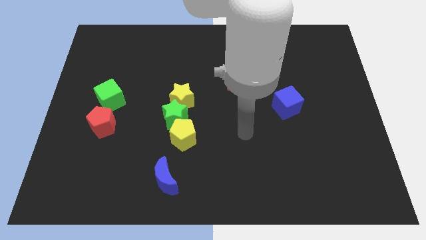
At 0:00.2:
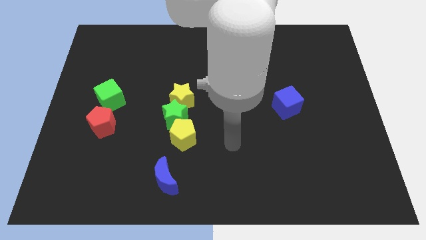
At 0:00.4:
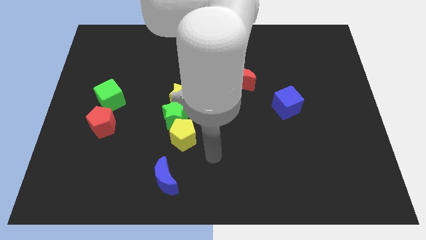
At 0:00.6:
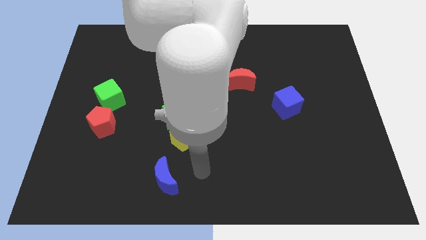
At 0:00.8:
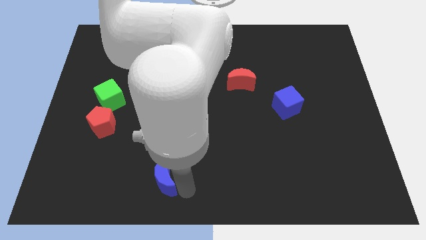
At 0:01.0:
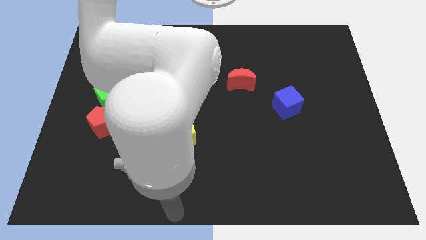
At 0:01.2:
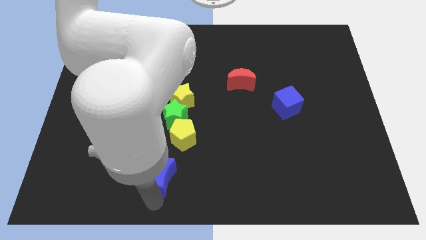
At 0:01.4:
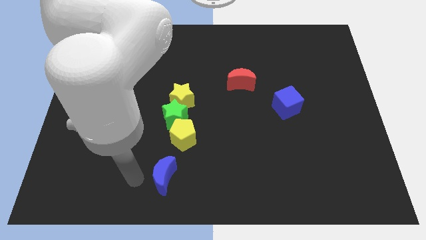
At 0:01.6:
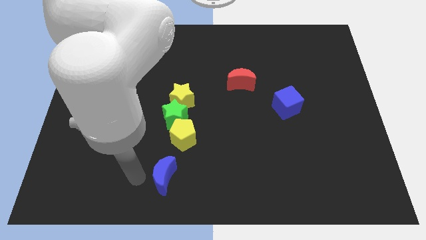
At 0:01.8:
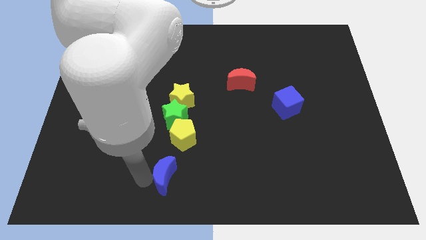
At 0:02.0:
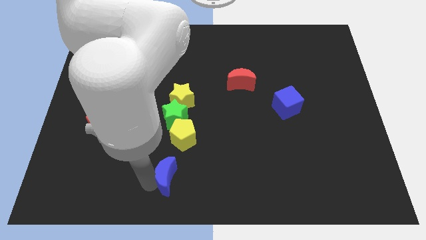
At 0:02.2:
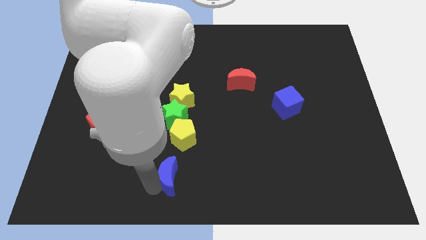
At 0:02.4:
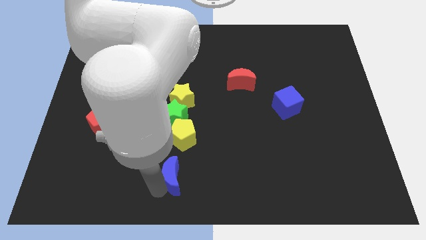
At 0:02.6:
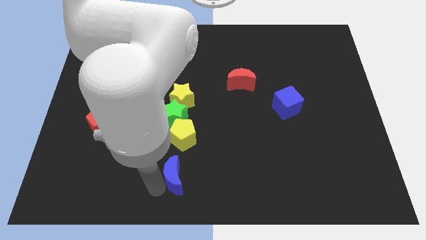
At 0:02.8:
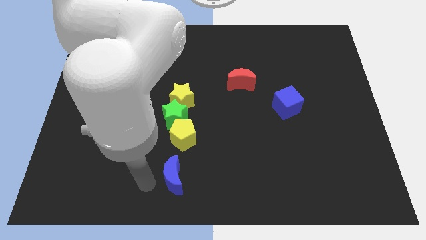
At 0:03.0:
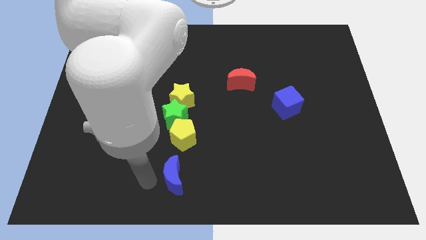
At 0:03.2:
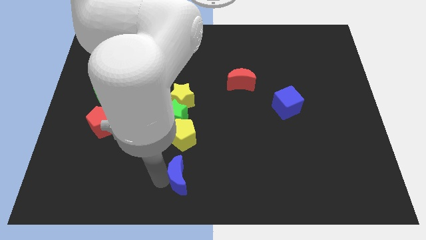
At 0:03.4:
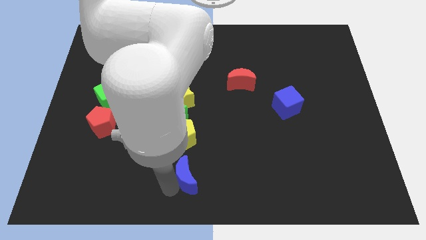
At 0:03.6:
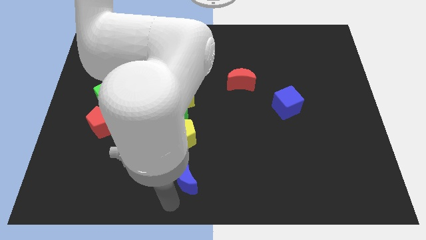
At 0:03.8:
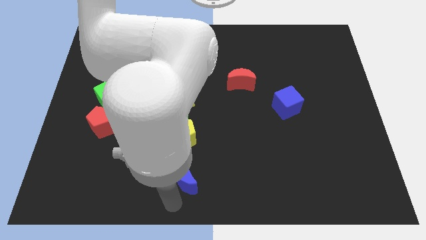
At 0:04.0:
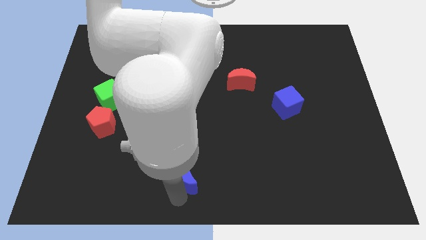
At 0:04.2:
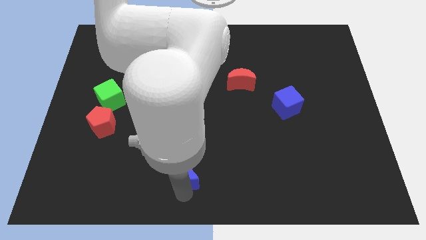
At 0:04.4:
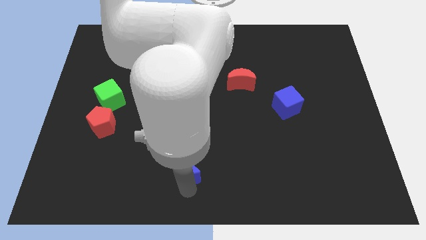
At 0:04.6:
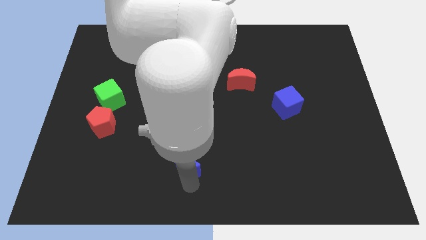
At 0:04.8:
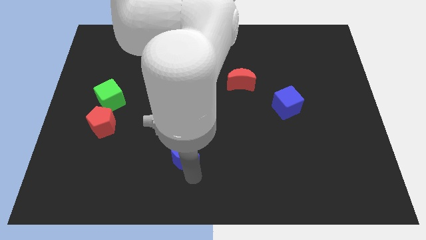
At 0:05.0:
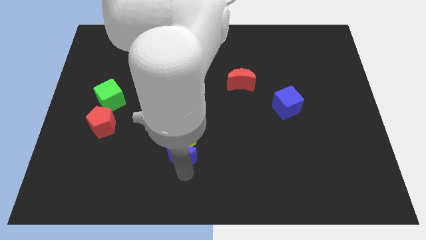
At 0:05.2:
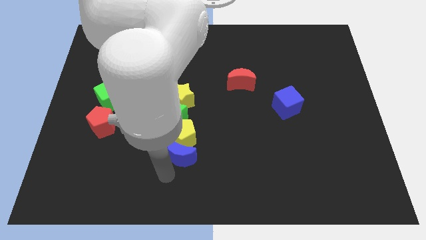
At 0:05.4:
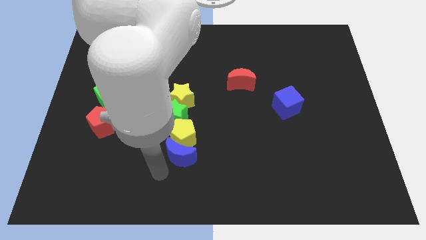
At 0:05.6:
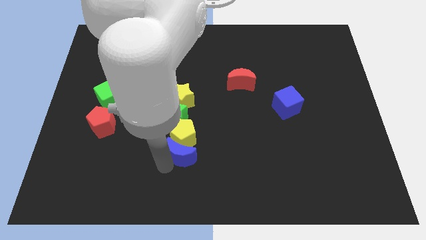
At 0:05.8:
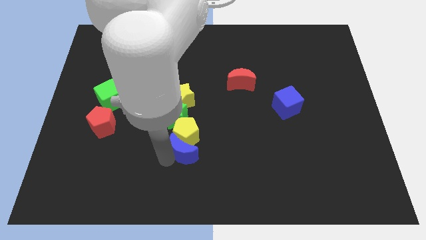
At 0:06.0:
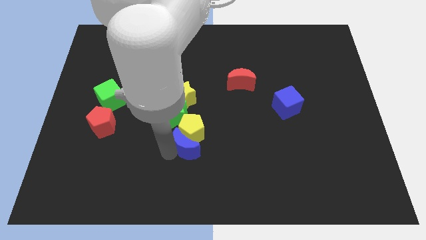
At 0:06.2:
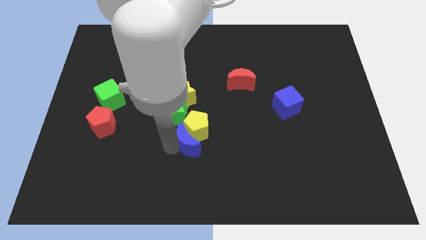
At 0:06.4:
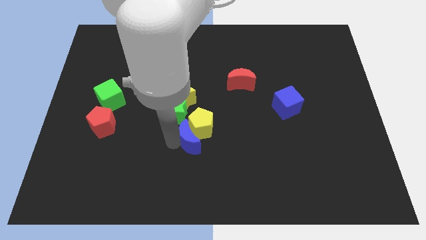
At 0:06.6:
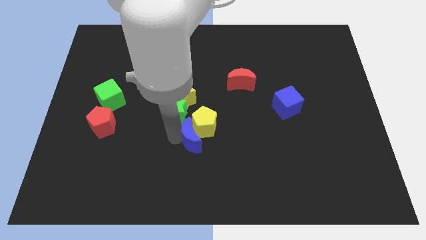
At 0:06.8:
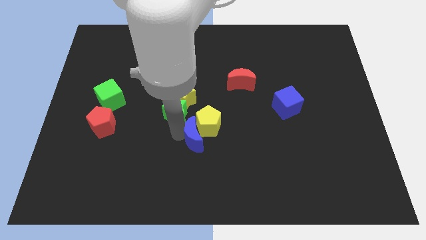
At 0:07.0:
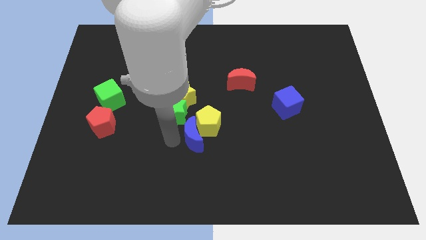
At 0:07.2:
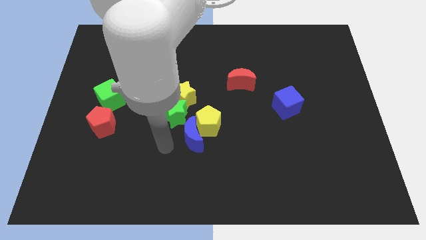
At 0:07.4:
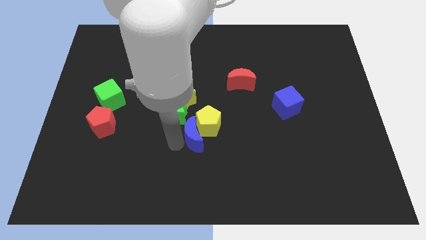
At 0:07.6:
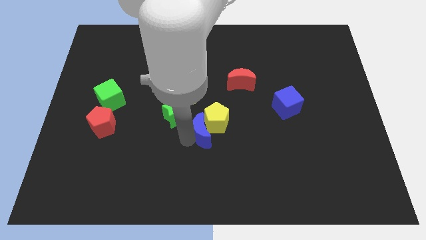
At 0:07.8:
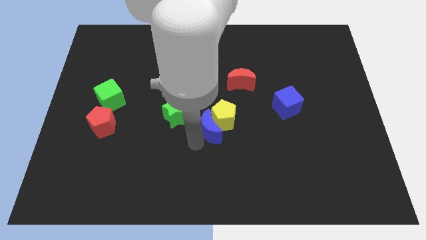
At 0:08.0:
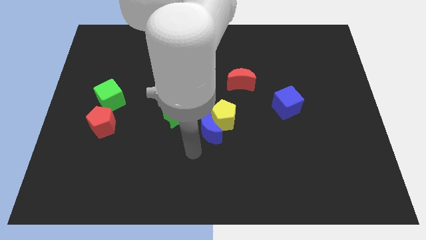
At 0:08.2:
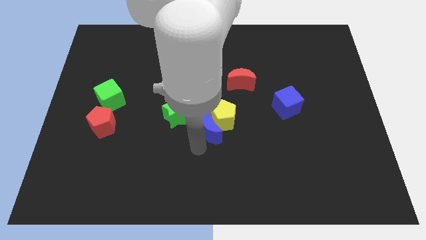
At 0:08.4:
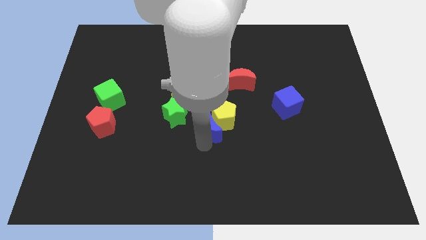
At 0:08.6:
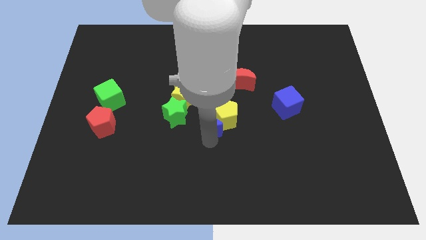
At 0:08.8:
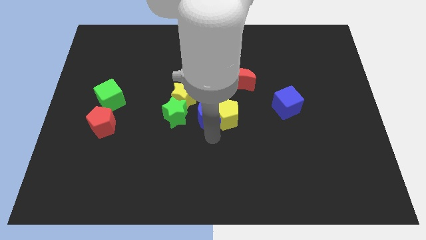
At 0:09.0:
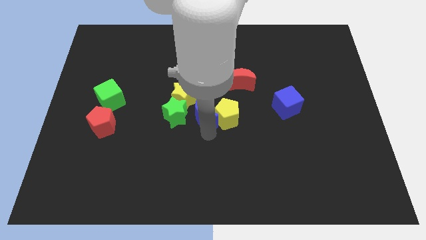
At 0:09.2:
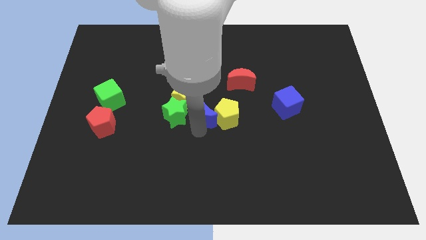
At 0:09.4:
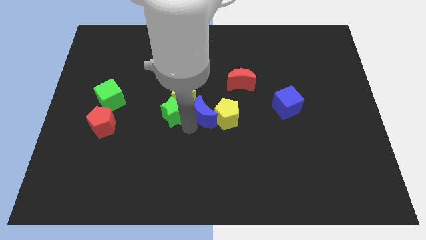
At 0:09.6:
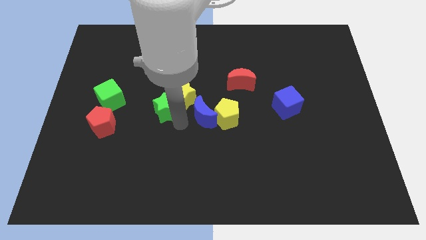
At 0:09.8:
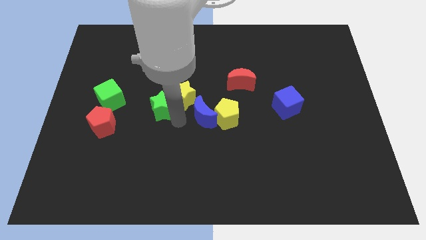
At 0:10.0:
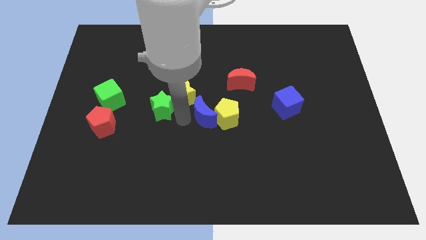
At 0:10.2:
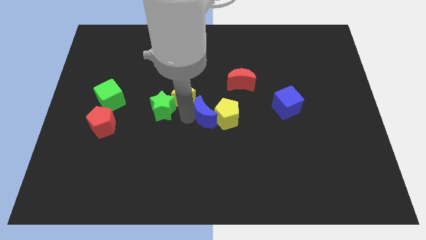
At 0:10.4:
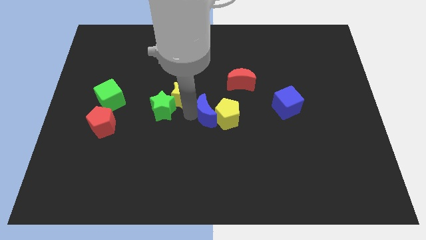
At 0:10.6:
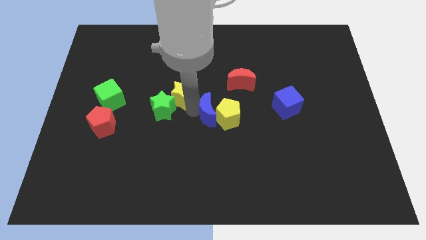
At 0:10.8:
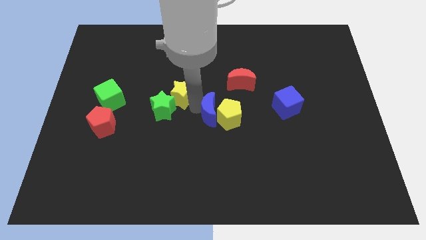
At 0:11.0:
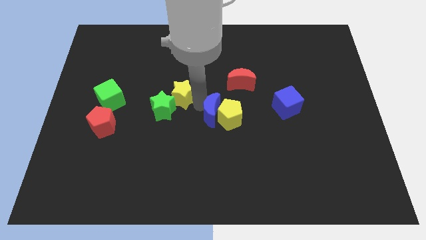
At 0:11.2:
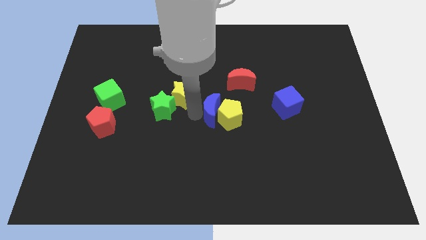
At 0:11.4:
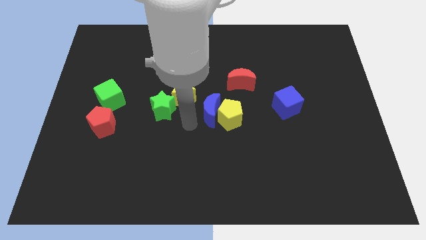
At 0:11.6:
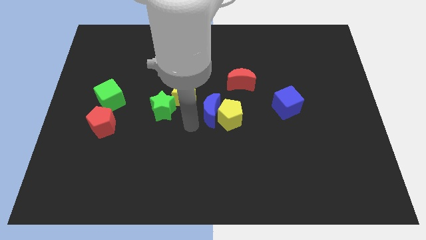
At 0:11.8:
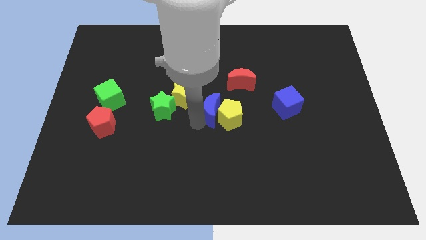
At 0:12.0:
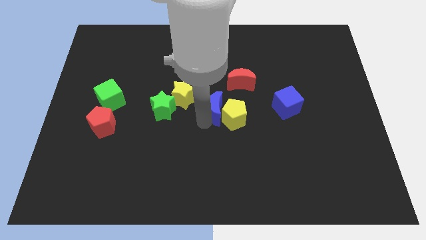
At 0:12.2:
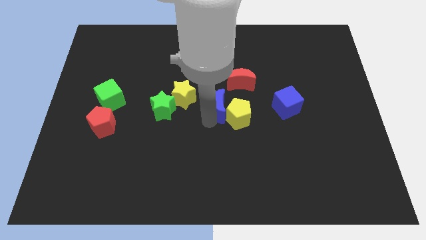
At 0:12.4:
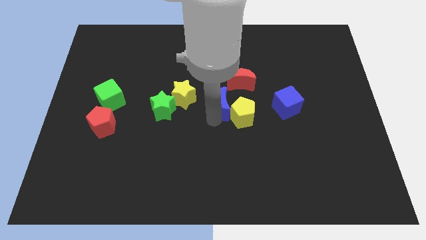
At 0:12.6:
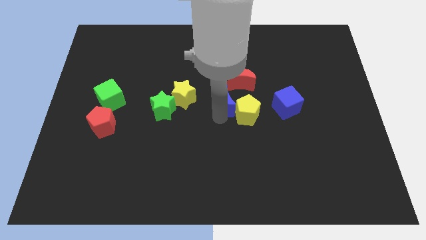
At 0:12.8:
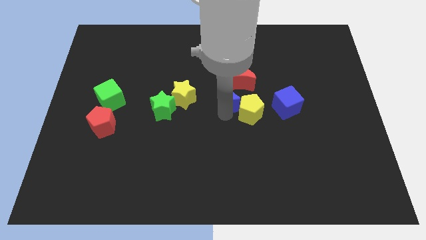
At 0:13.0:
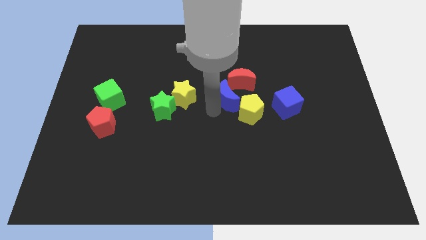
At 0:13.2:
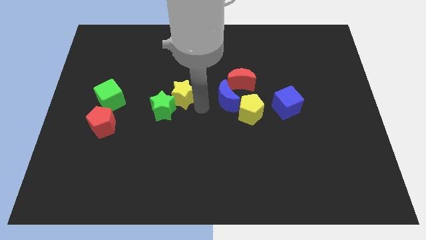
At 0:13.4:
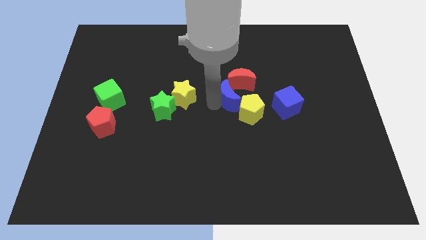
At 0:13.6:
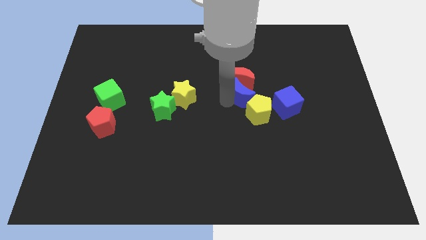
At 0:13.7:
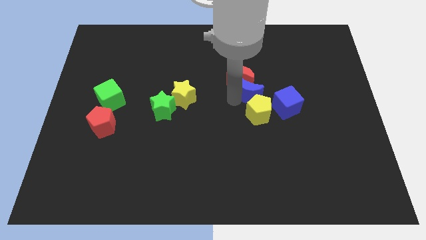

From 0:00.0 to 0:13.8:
push the blue moon to the top left side of the blue cube

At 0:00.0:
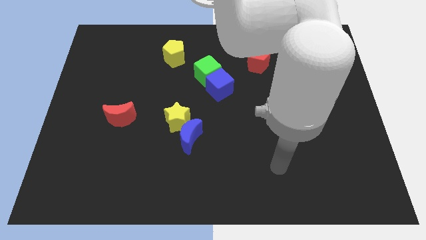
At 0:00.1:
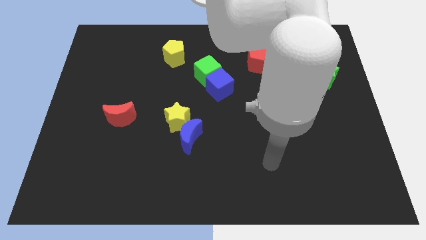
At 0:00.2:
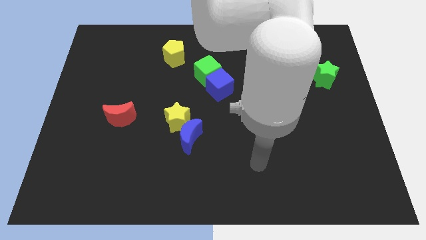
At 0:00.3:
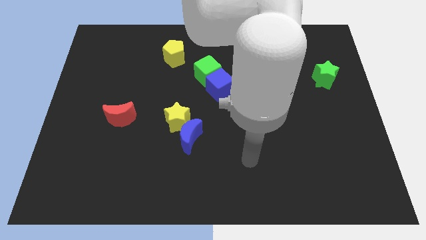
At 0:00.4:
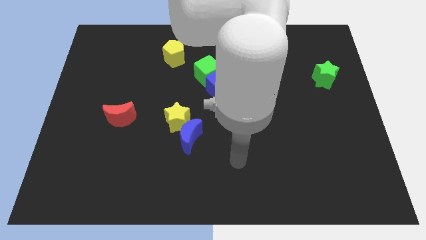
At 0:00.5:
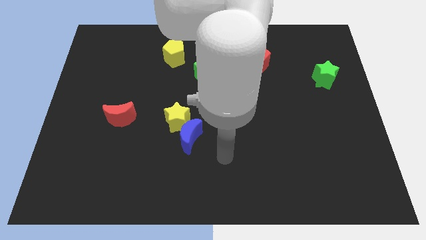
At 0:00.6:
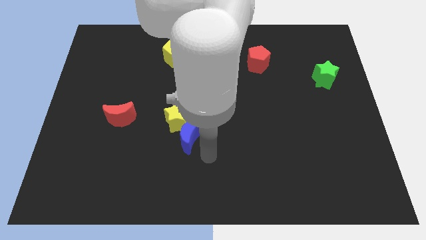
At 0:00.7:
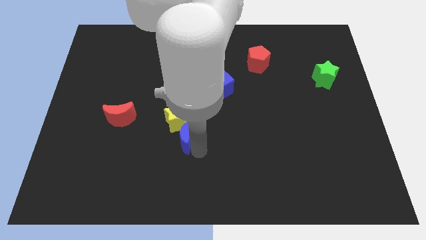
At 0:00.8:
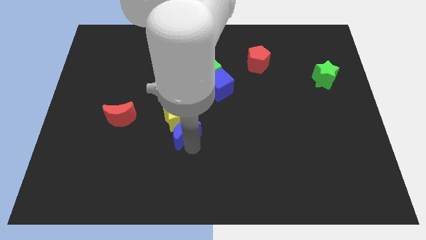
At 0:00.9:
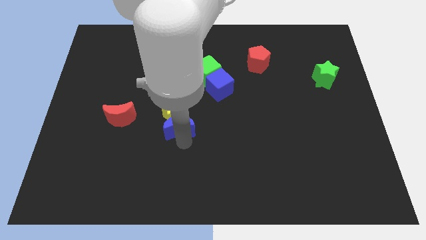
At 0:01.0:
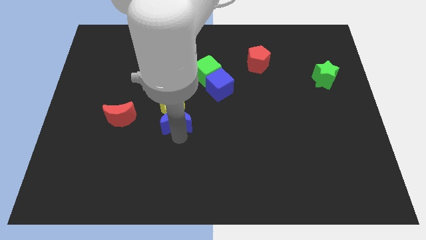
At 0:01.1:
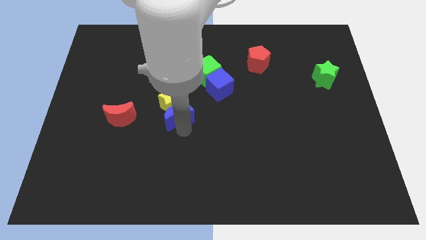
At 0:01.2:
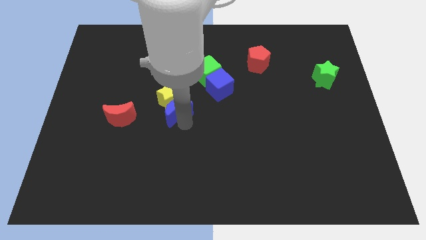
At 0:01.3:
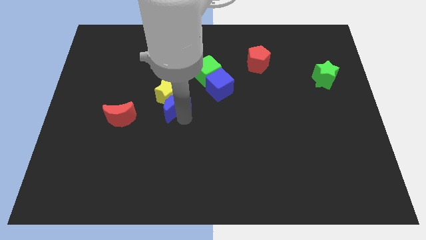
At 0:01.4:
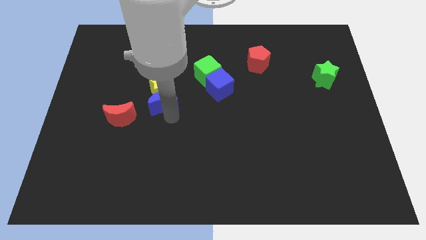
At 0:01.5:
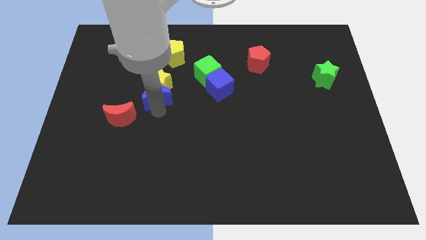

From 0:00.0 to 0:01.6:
put the yellow star left of the green cube
